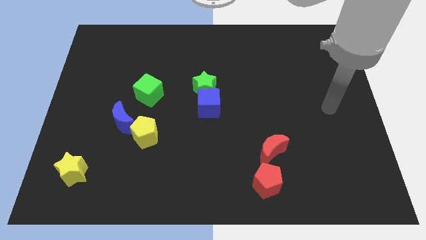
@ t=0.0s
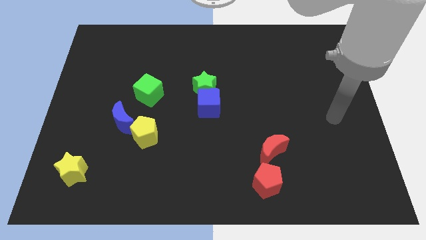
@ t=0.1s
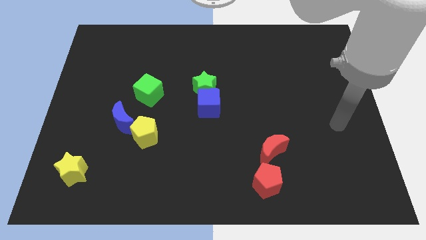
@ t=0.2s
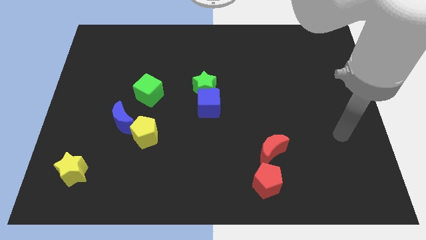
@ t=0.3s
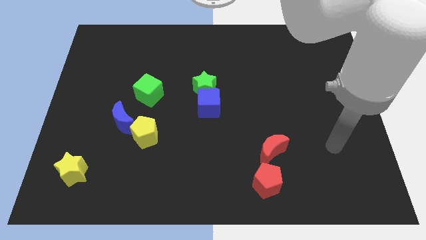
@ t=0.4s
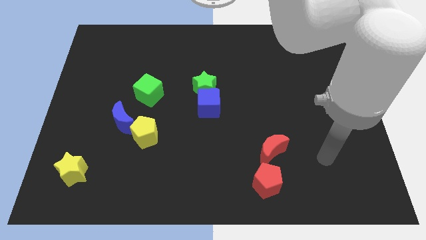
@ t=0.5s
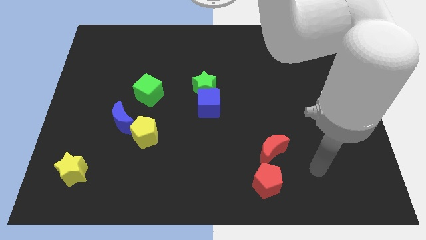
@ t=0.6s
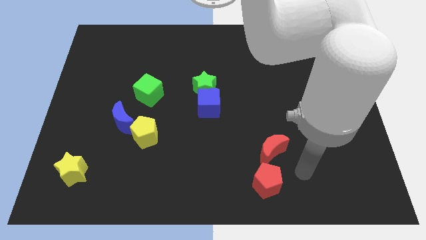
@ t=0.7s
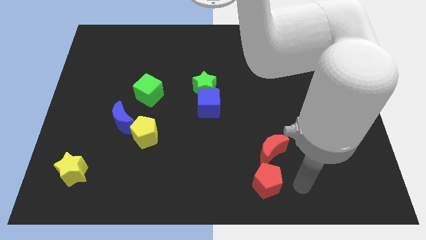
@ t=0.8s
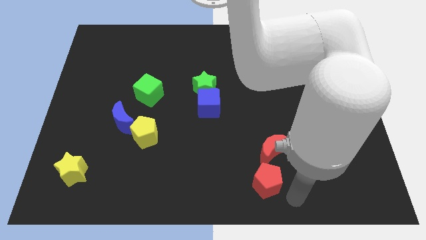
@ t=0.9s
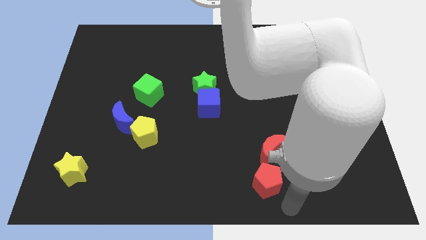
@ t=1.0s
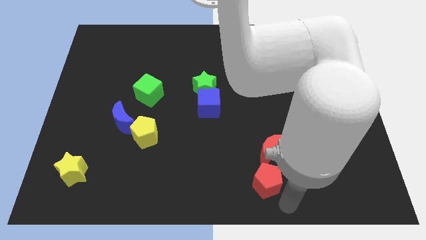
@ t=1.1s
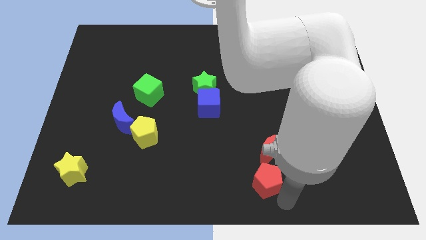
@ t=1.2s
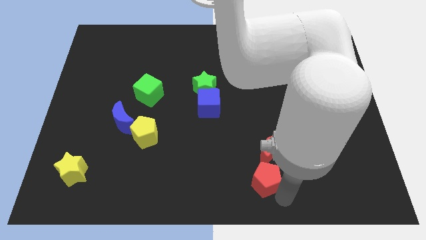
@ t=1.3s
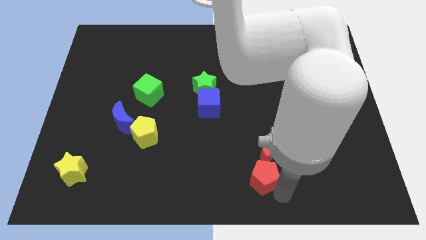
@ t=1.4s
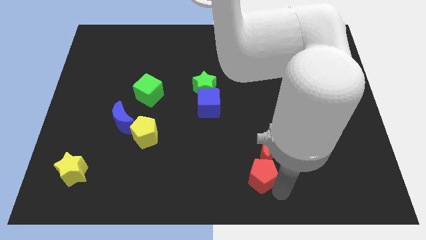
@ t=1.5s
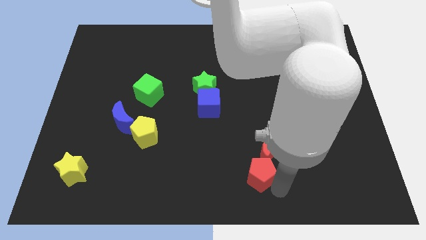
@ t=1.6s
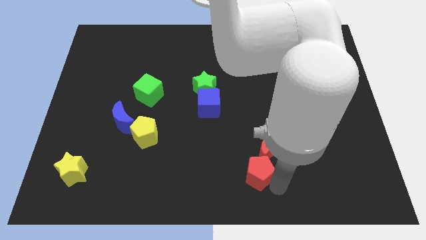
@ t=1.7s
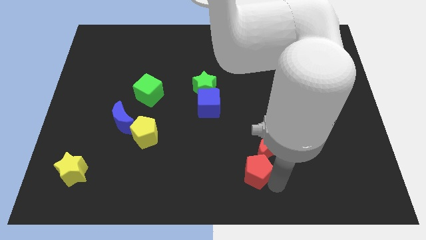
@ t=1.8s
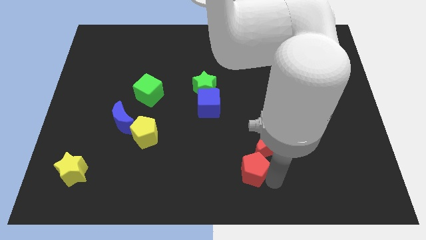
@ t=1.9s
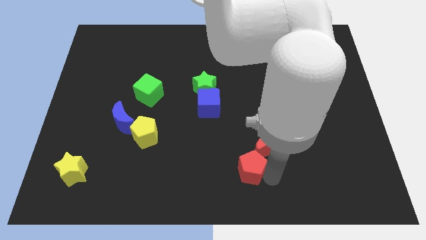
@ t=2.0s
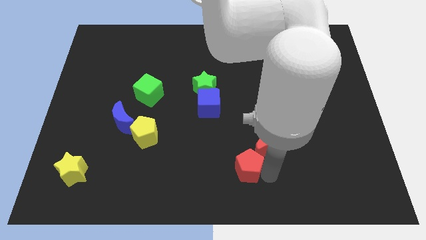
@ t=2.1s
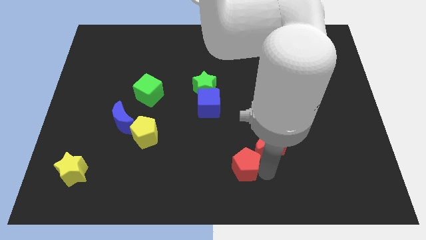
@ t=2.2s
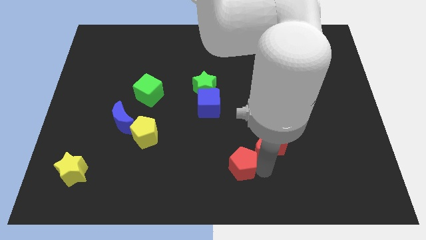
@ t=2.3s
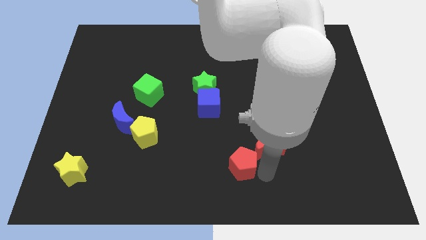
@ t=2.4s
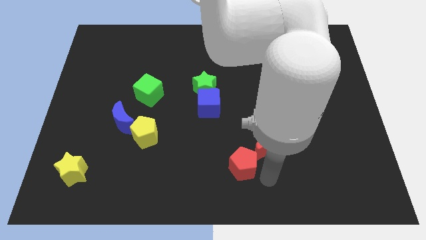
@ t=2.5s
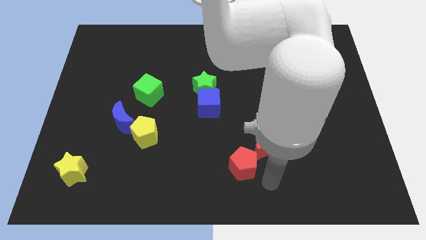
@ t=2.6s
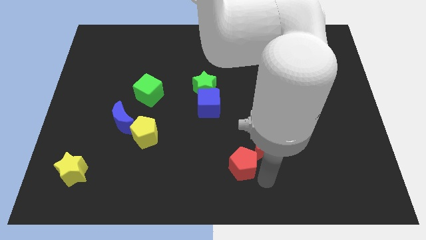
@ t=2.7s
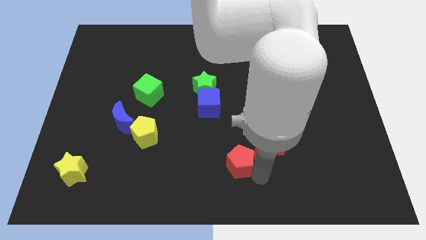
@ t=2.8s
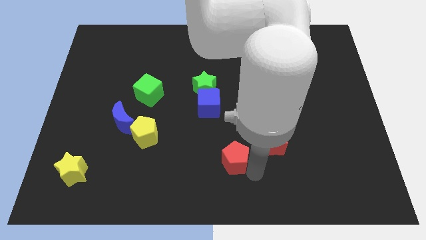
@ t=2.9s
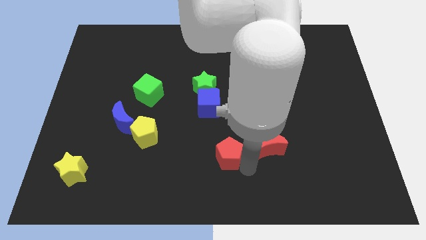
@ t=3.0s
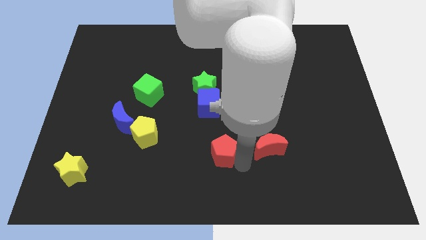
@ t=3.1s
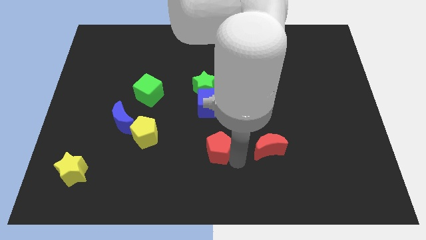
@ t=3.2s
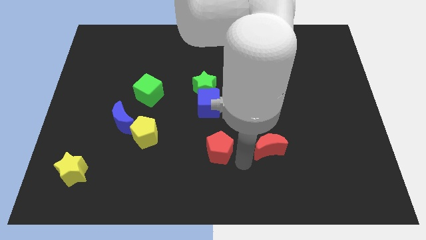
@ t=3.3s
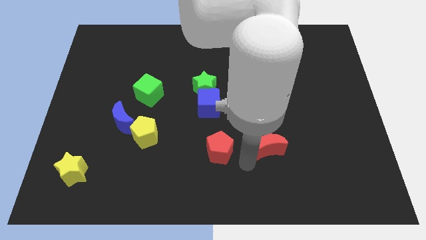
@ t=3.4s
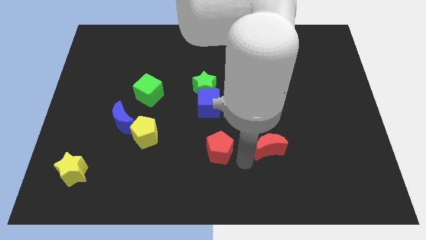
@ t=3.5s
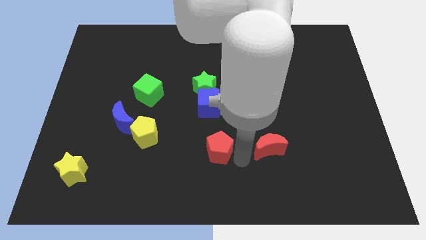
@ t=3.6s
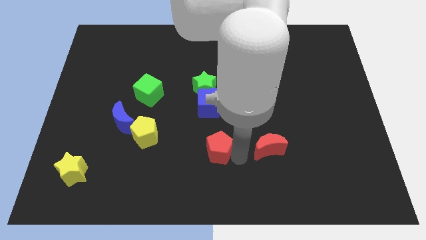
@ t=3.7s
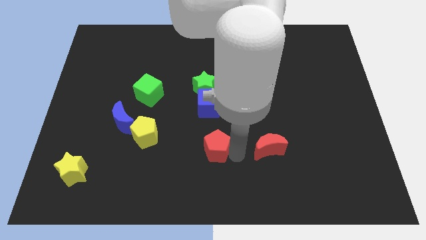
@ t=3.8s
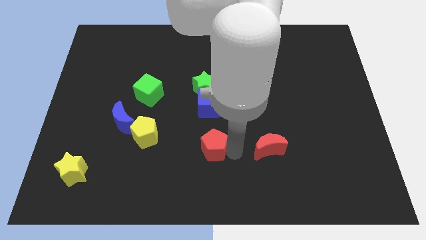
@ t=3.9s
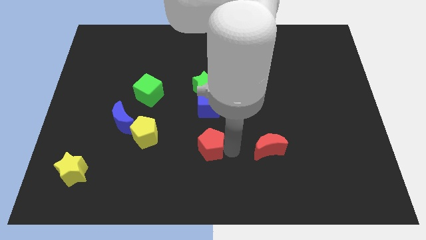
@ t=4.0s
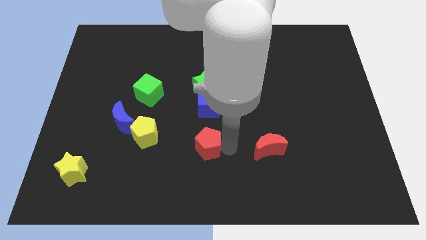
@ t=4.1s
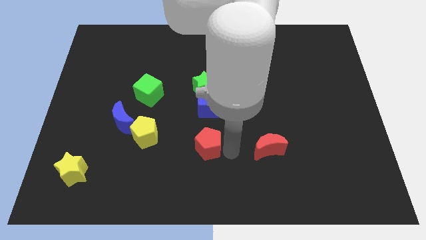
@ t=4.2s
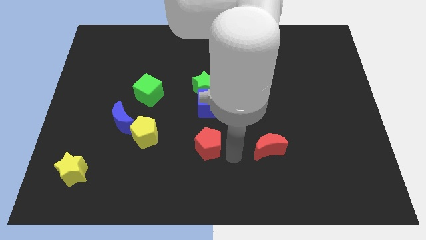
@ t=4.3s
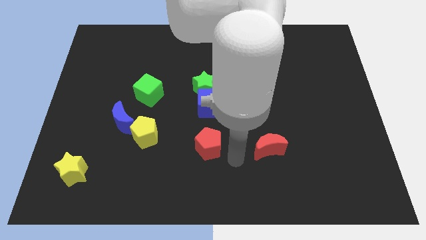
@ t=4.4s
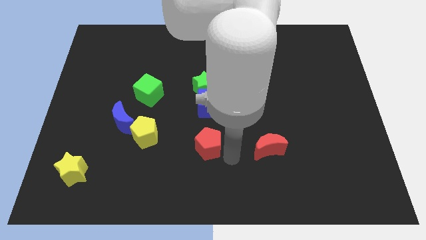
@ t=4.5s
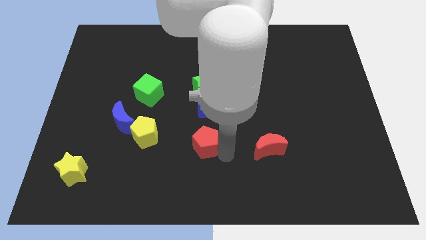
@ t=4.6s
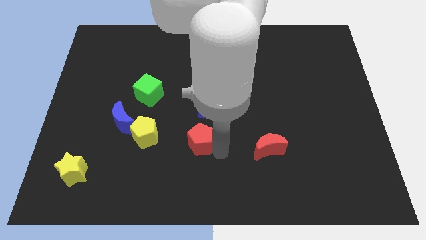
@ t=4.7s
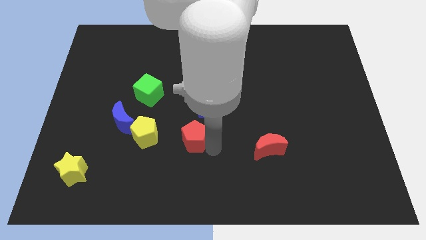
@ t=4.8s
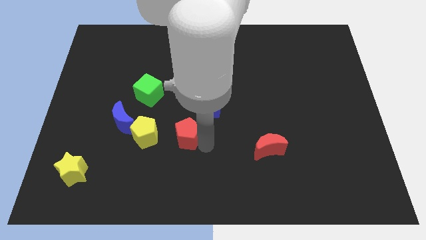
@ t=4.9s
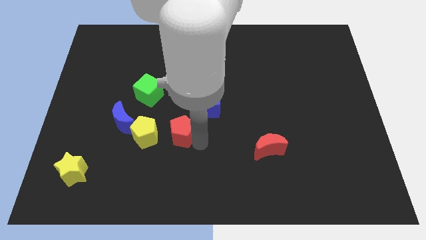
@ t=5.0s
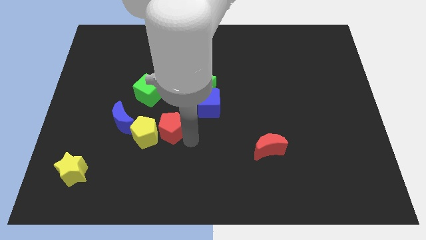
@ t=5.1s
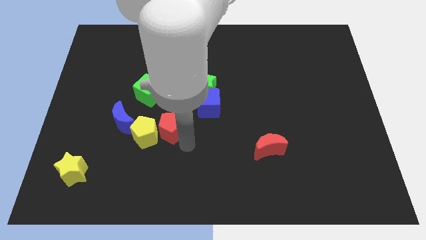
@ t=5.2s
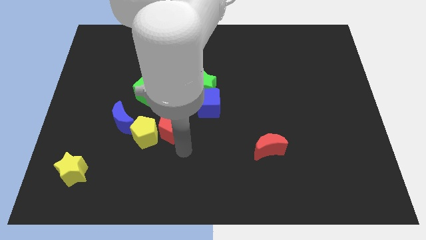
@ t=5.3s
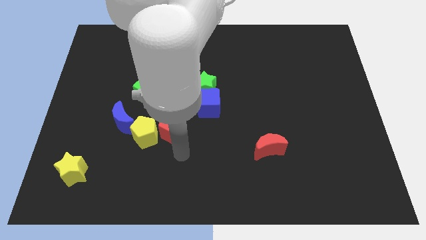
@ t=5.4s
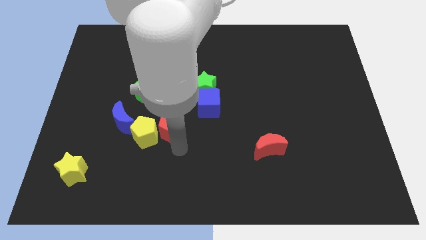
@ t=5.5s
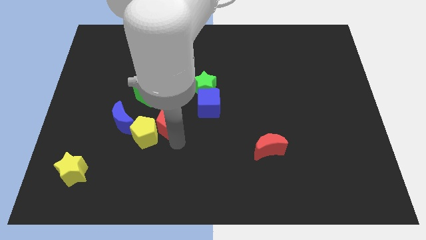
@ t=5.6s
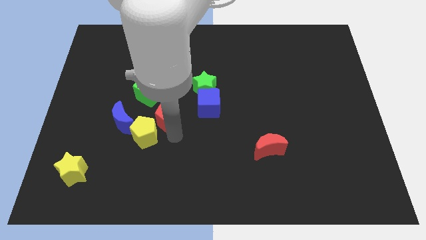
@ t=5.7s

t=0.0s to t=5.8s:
slide the red pentagon to the left of the blue cube

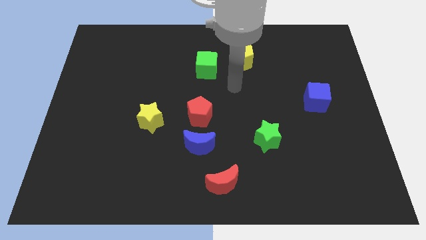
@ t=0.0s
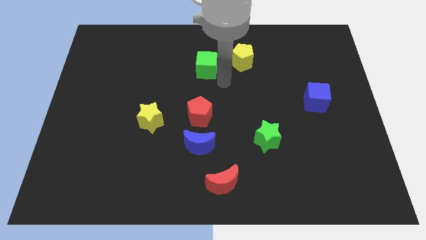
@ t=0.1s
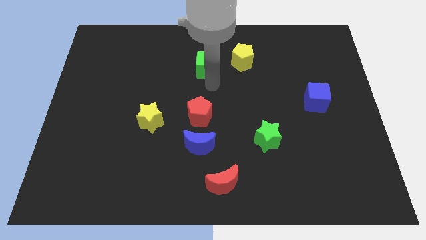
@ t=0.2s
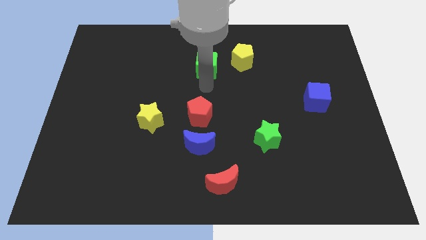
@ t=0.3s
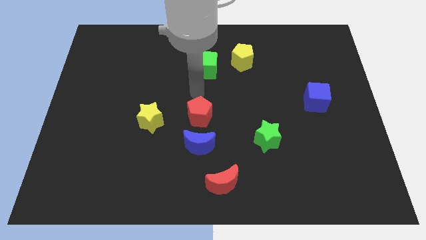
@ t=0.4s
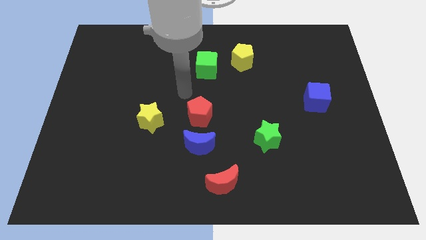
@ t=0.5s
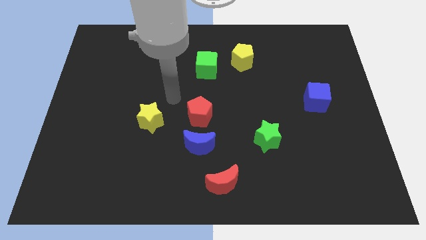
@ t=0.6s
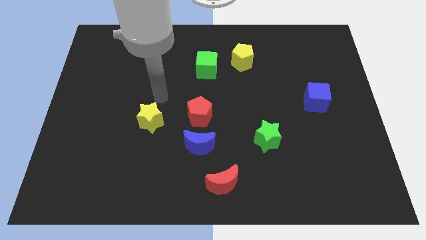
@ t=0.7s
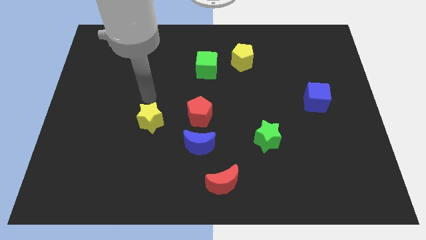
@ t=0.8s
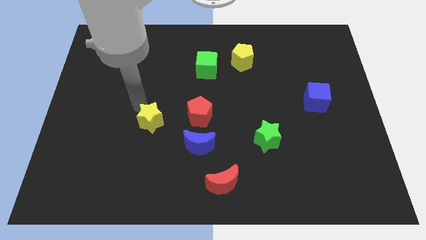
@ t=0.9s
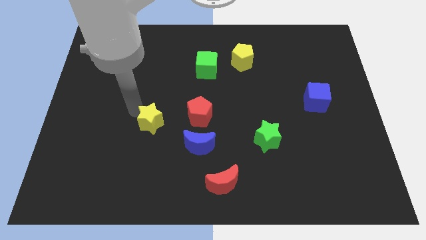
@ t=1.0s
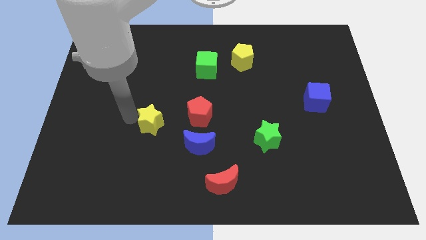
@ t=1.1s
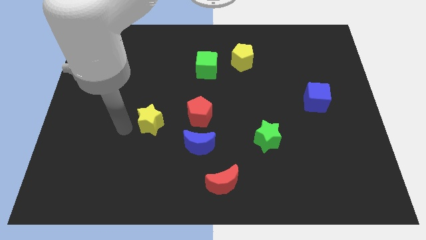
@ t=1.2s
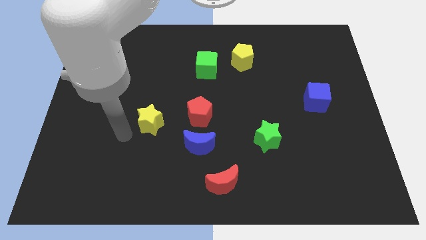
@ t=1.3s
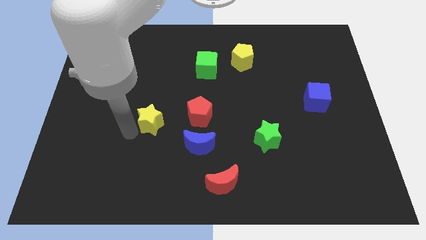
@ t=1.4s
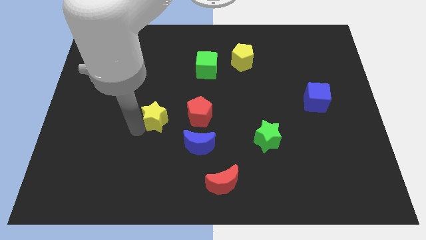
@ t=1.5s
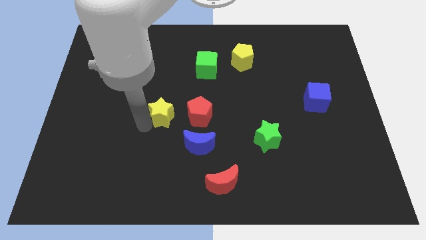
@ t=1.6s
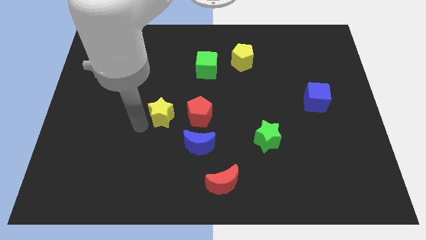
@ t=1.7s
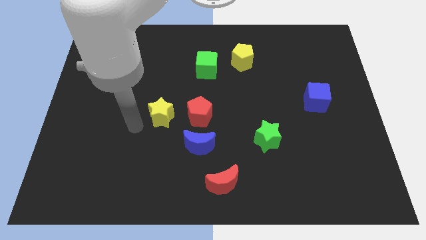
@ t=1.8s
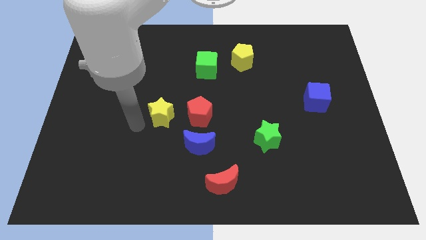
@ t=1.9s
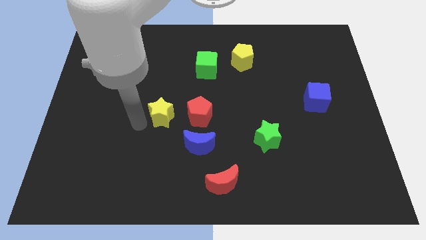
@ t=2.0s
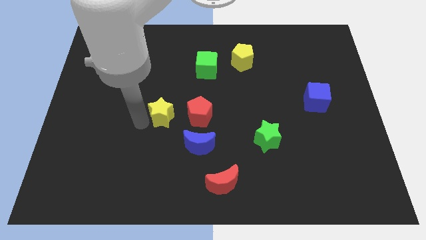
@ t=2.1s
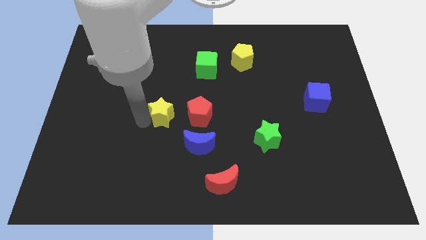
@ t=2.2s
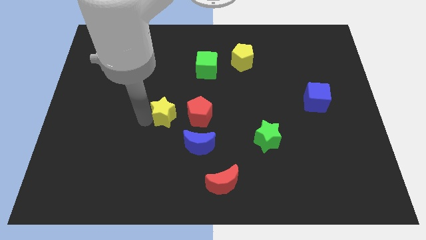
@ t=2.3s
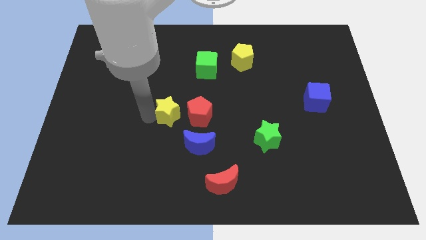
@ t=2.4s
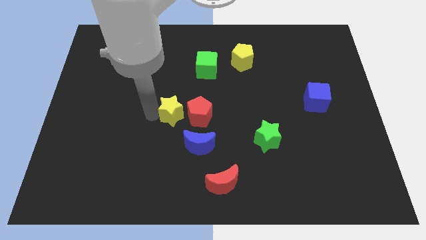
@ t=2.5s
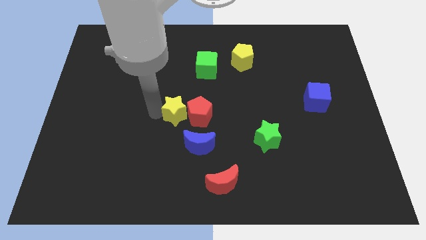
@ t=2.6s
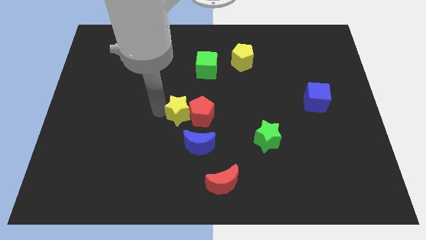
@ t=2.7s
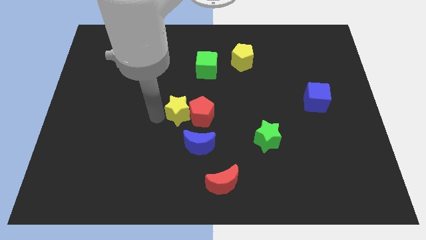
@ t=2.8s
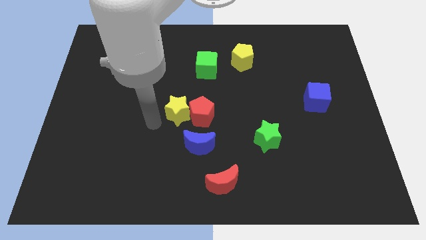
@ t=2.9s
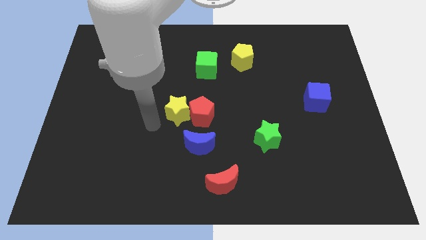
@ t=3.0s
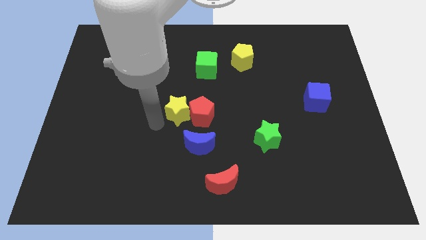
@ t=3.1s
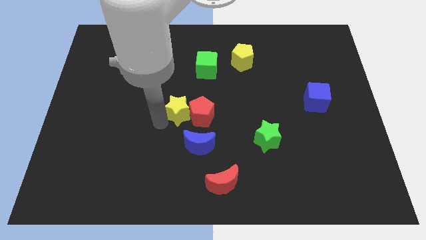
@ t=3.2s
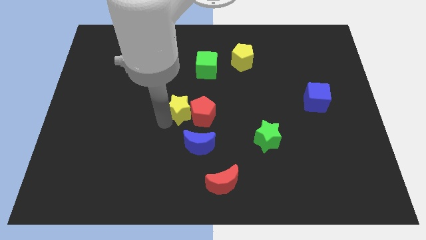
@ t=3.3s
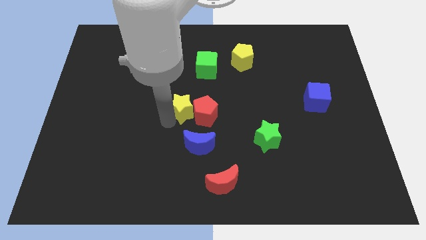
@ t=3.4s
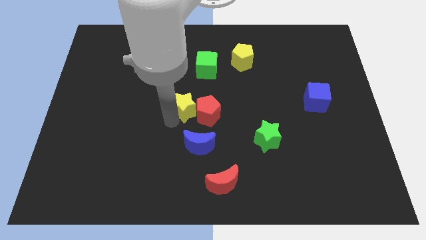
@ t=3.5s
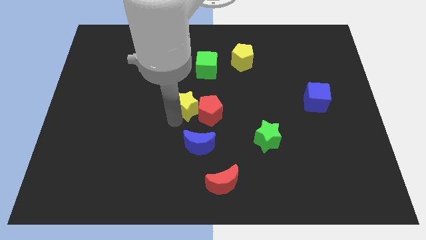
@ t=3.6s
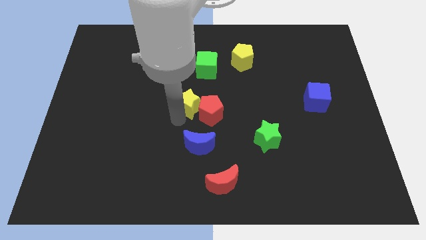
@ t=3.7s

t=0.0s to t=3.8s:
move the yellow star to the bottom of the green cube
